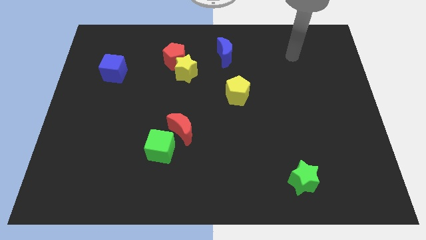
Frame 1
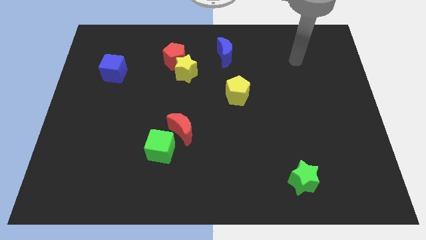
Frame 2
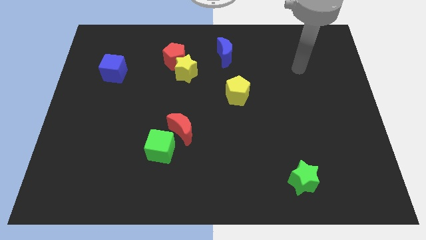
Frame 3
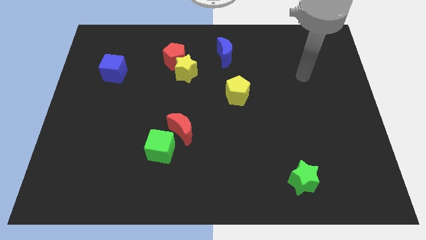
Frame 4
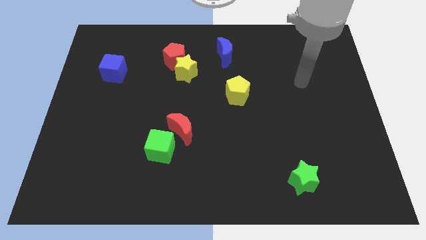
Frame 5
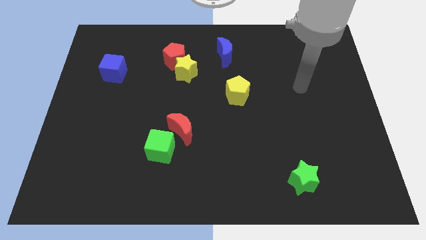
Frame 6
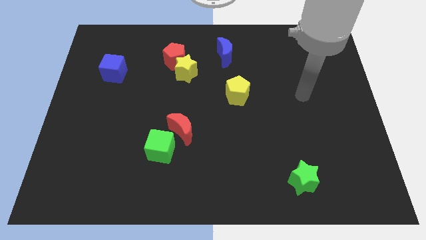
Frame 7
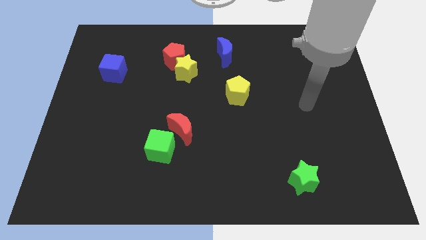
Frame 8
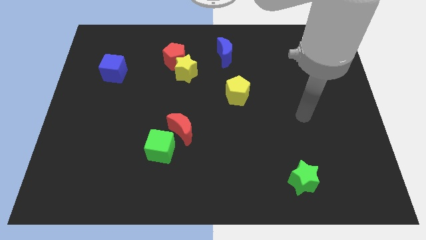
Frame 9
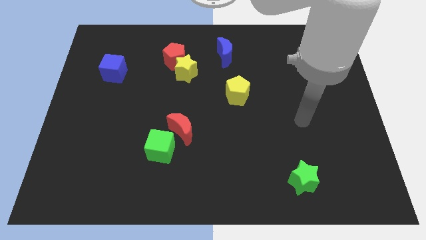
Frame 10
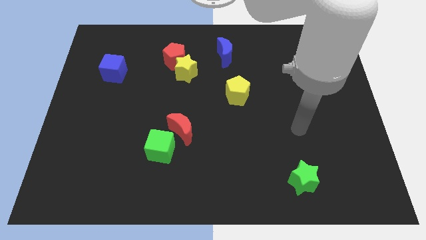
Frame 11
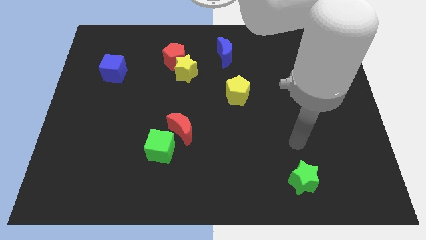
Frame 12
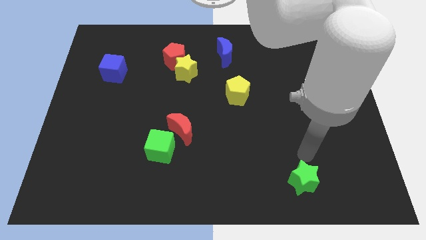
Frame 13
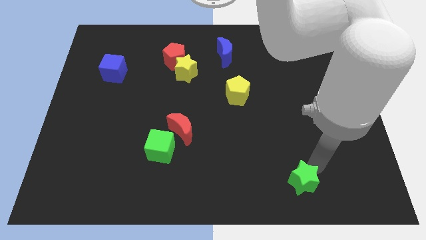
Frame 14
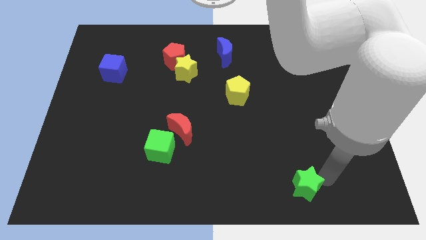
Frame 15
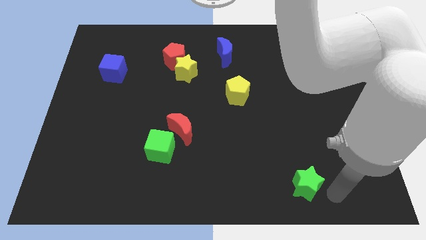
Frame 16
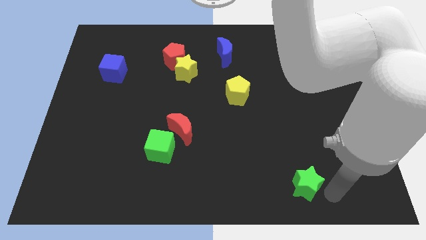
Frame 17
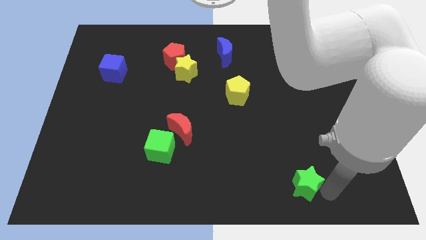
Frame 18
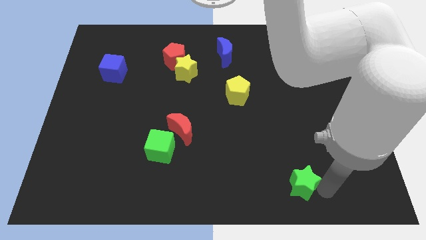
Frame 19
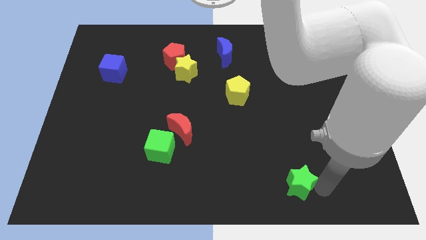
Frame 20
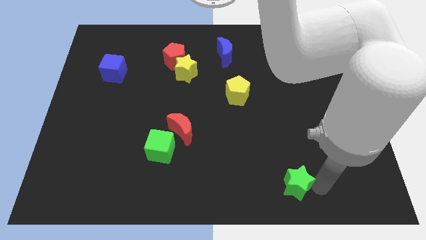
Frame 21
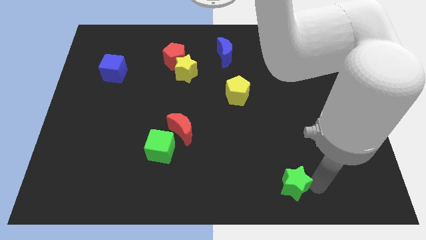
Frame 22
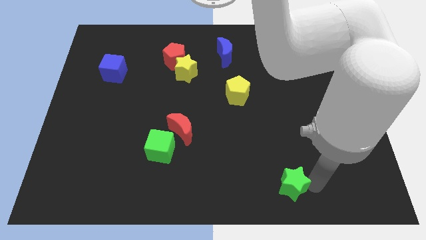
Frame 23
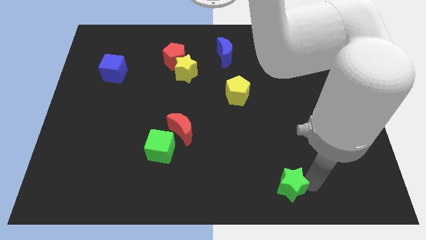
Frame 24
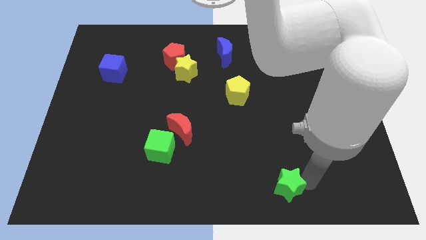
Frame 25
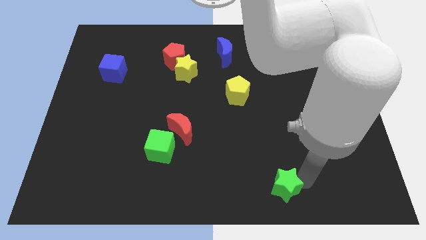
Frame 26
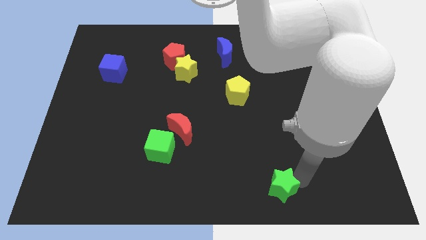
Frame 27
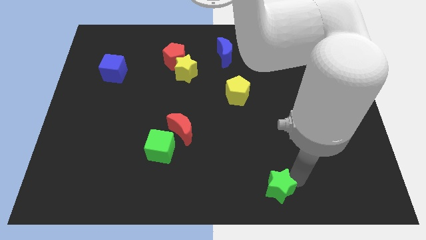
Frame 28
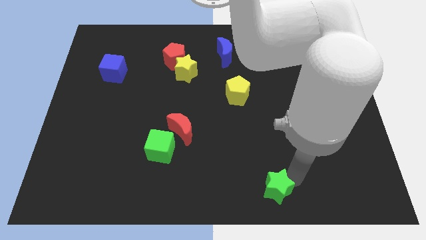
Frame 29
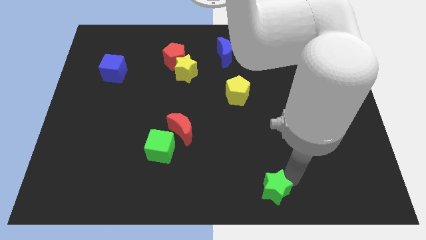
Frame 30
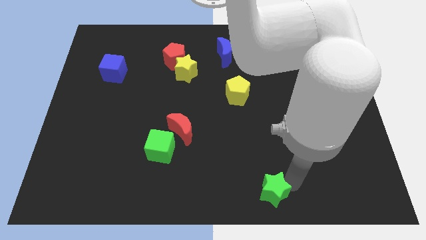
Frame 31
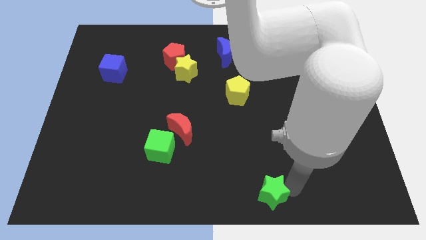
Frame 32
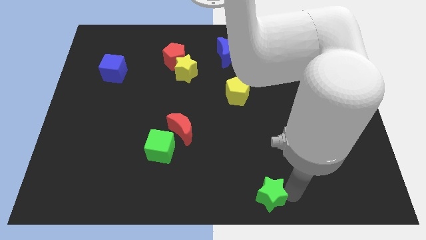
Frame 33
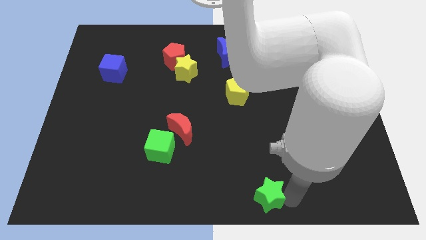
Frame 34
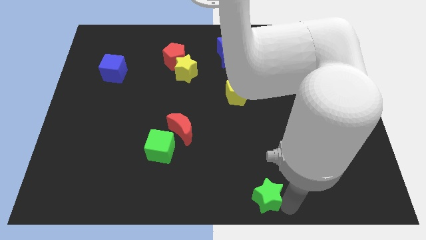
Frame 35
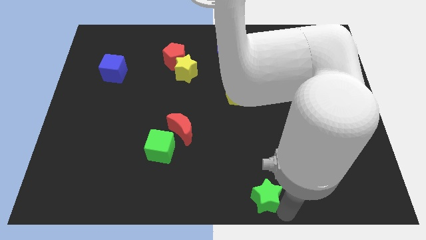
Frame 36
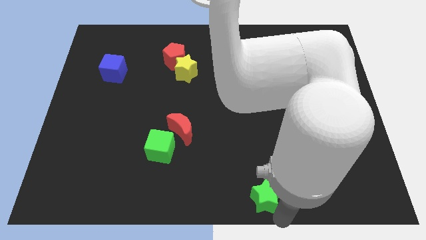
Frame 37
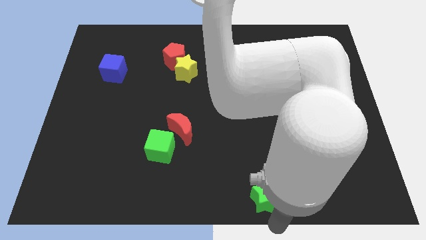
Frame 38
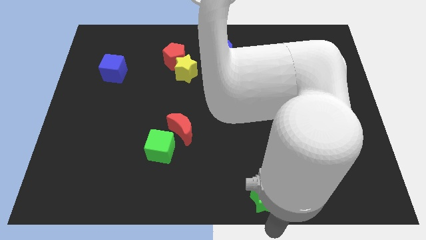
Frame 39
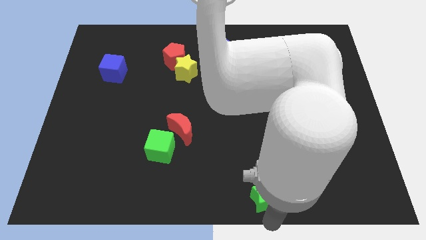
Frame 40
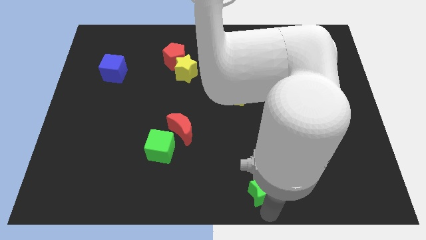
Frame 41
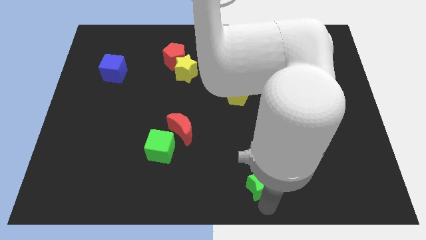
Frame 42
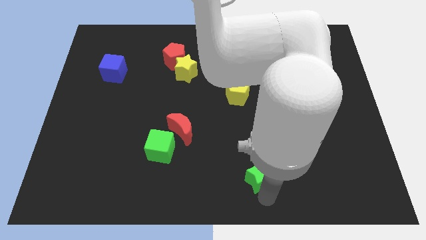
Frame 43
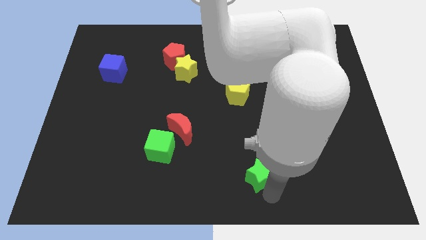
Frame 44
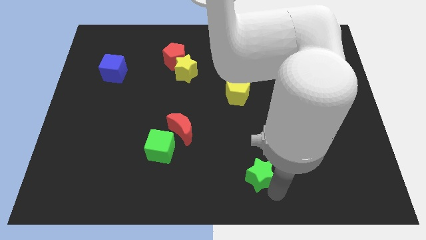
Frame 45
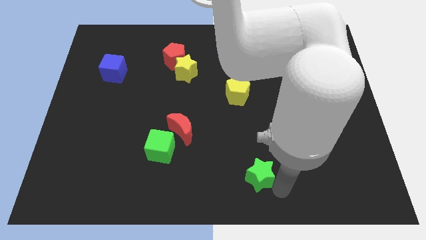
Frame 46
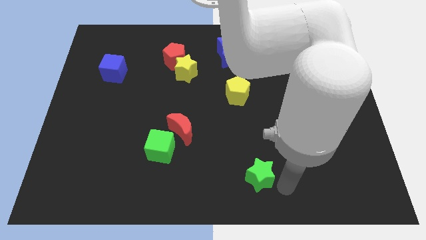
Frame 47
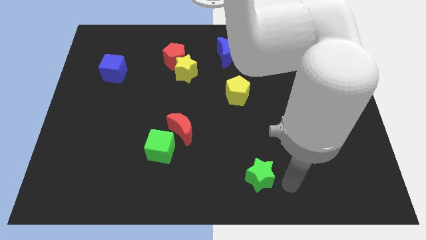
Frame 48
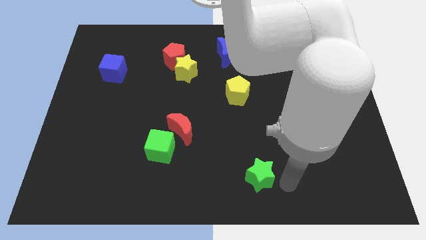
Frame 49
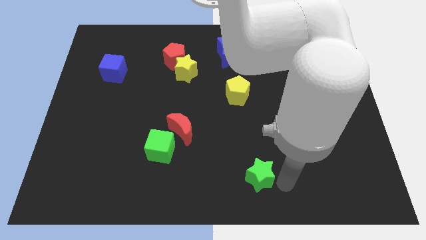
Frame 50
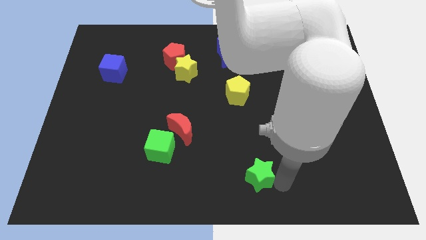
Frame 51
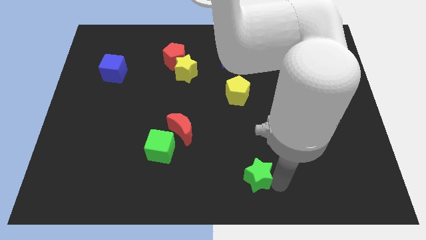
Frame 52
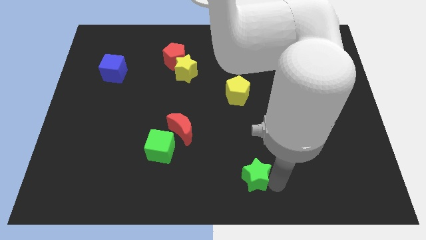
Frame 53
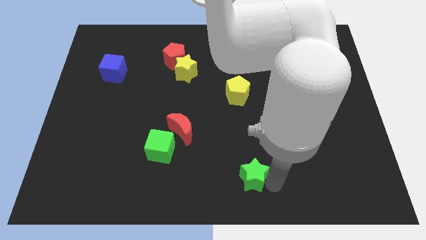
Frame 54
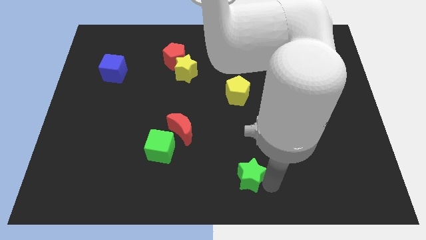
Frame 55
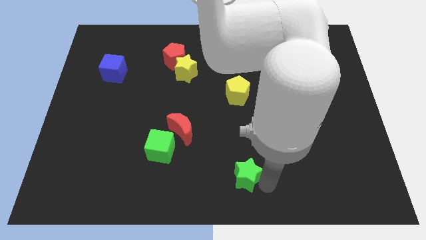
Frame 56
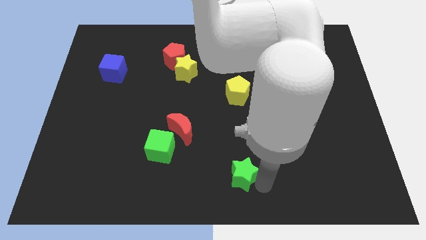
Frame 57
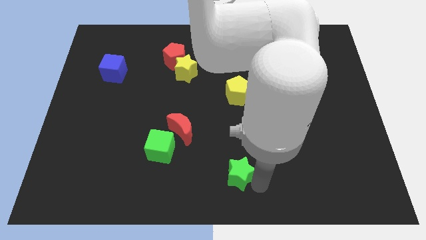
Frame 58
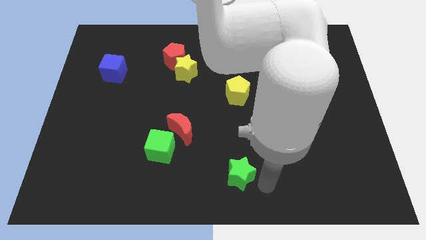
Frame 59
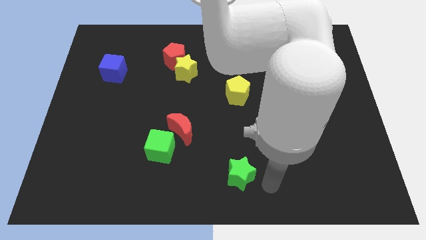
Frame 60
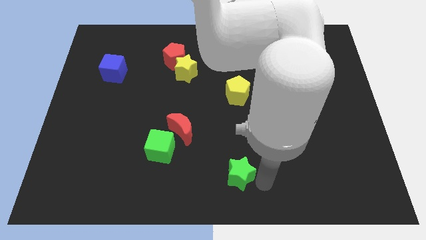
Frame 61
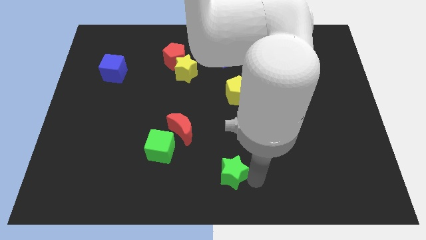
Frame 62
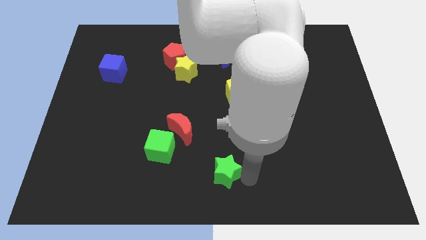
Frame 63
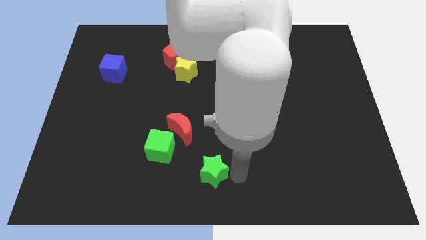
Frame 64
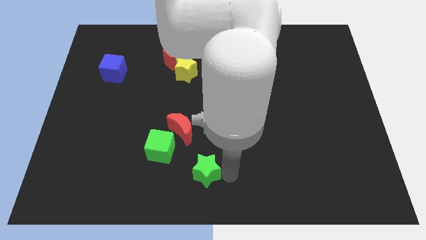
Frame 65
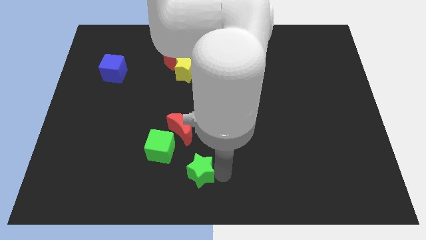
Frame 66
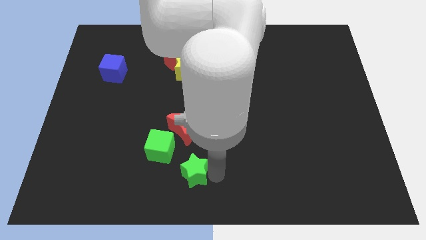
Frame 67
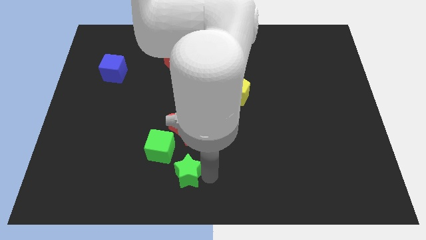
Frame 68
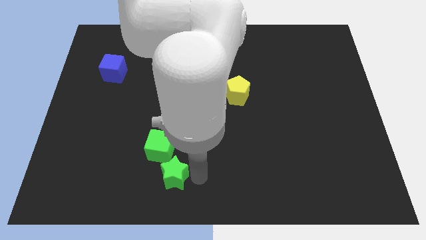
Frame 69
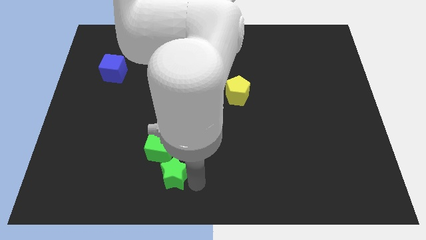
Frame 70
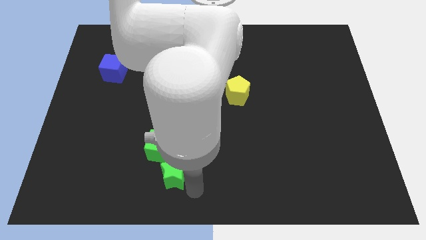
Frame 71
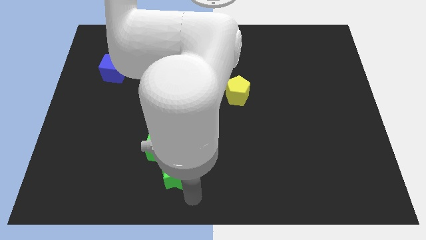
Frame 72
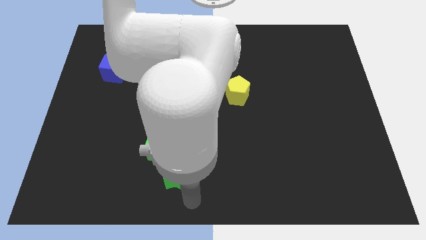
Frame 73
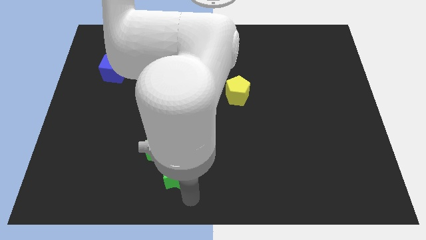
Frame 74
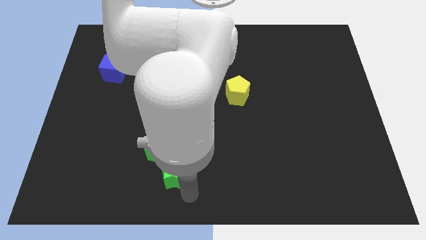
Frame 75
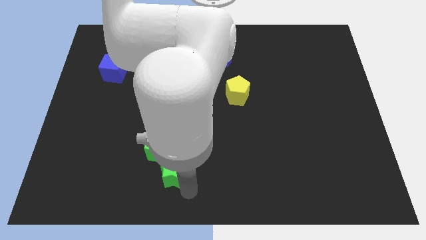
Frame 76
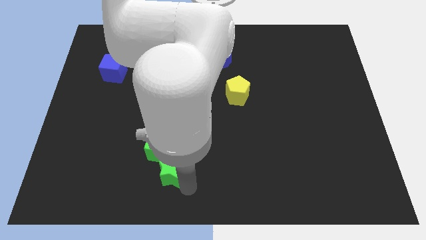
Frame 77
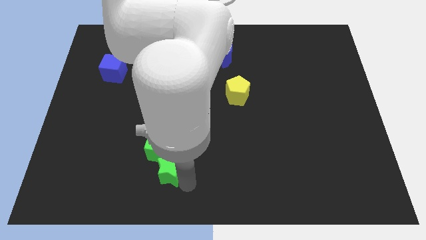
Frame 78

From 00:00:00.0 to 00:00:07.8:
put the green star towards the green cube
